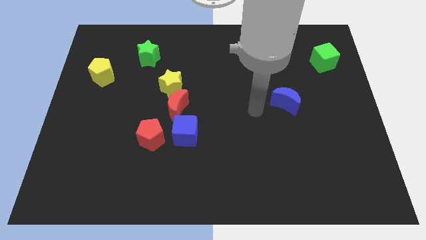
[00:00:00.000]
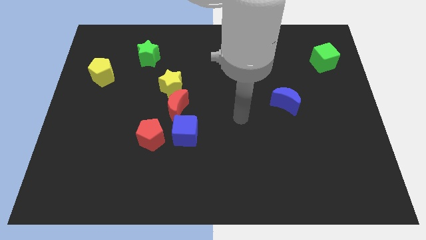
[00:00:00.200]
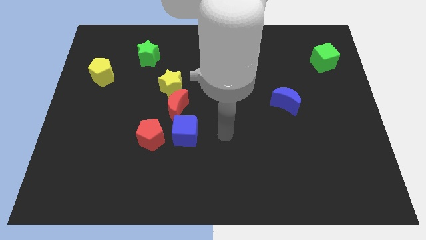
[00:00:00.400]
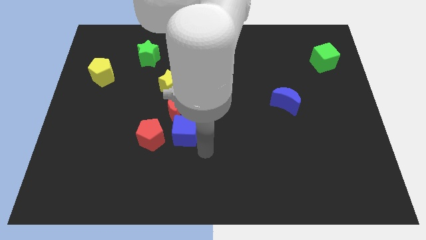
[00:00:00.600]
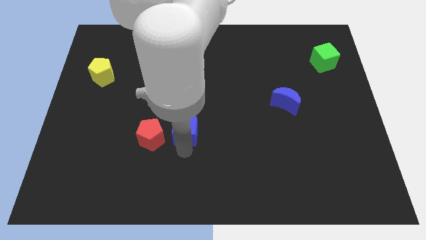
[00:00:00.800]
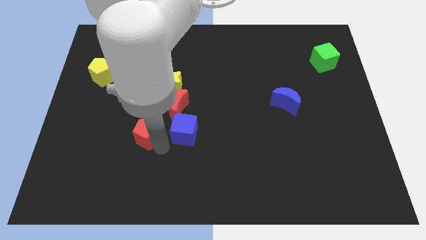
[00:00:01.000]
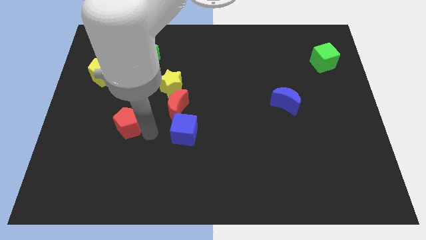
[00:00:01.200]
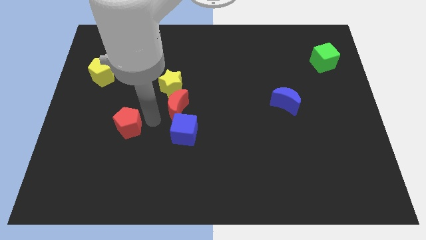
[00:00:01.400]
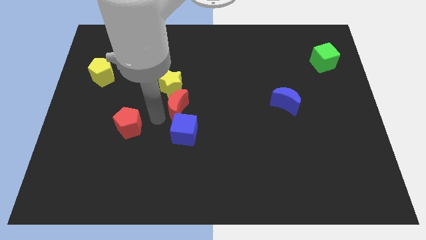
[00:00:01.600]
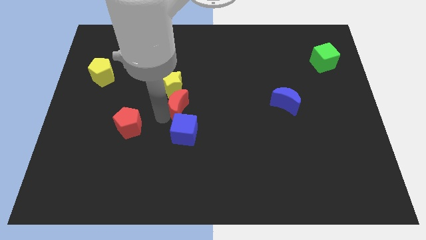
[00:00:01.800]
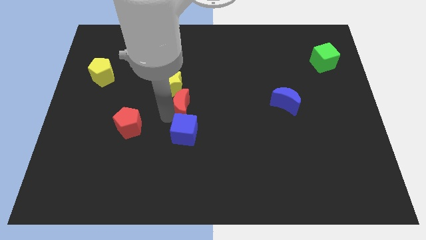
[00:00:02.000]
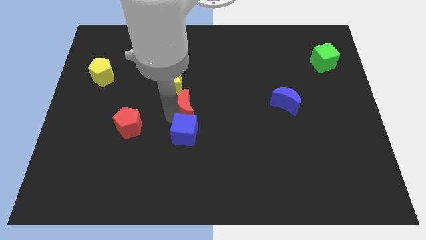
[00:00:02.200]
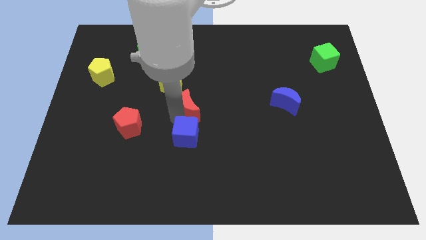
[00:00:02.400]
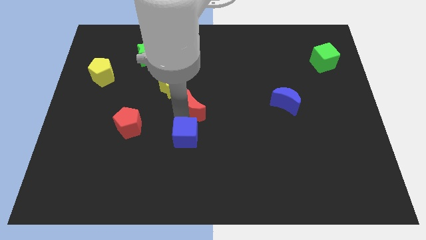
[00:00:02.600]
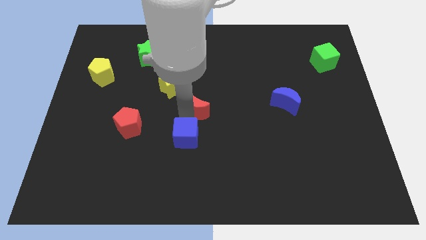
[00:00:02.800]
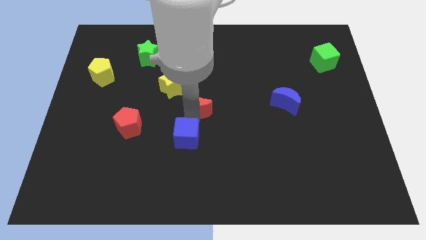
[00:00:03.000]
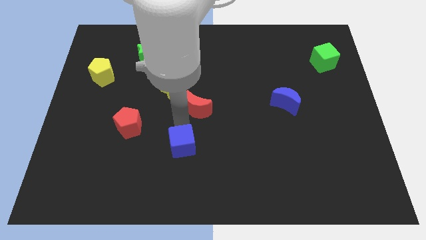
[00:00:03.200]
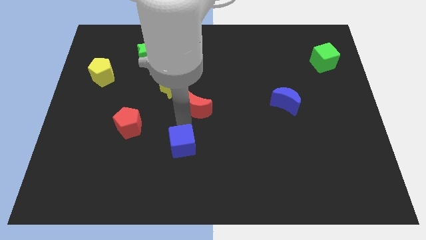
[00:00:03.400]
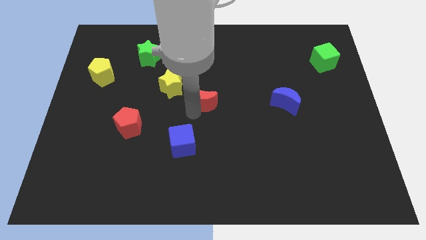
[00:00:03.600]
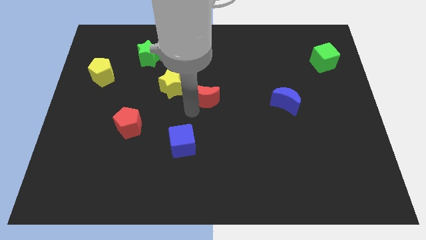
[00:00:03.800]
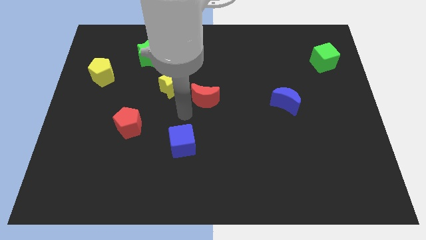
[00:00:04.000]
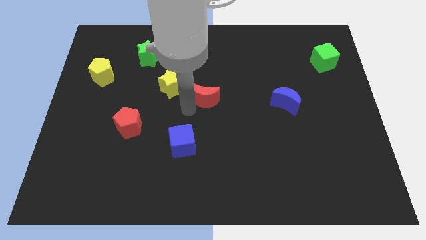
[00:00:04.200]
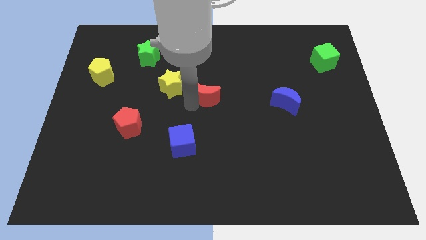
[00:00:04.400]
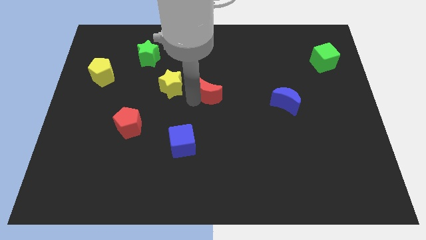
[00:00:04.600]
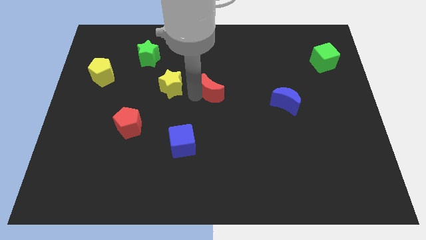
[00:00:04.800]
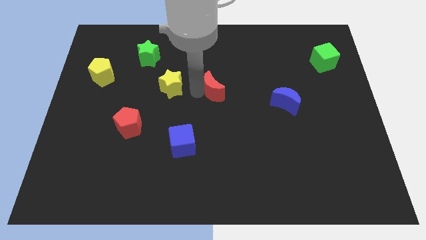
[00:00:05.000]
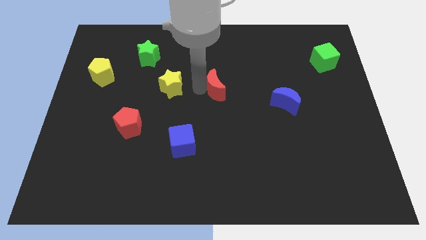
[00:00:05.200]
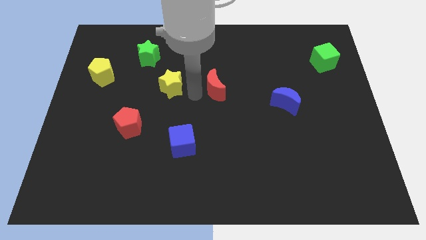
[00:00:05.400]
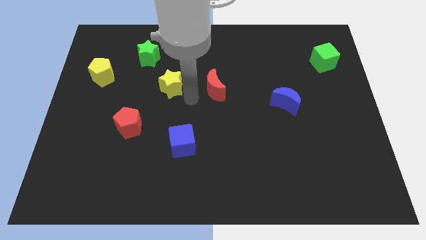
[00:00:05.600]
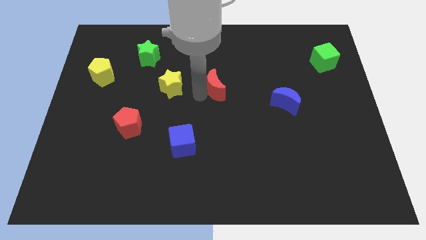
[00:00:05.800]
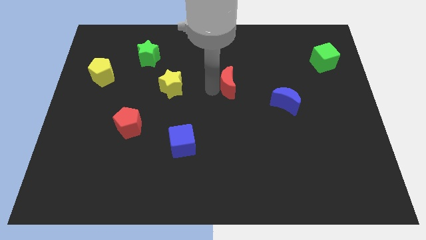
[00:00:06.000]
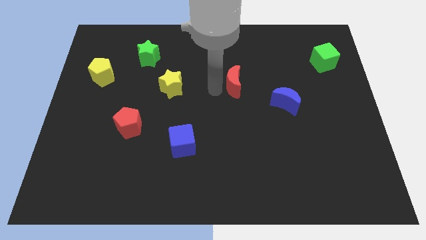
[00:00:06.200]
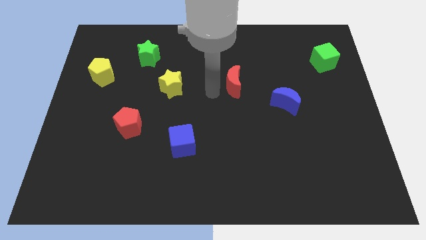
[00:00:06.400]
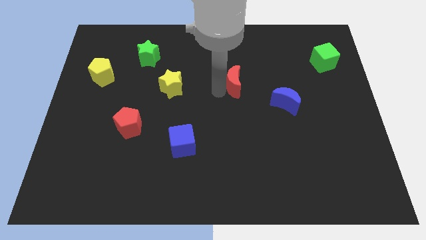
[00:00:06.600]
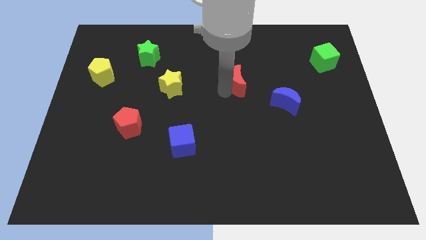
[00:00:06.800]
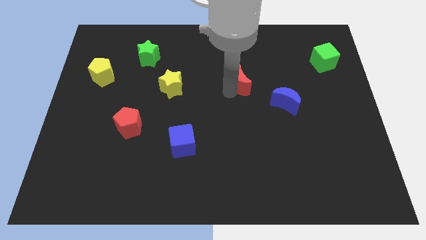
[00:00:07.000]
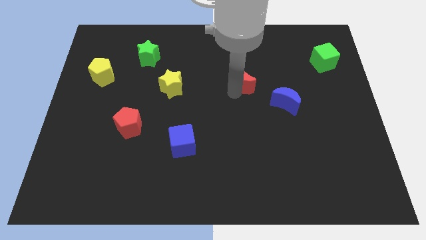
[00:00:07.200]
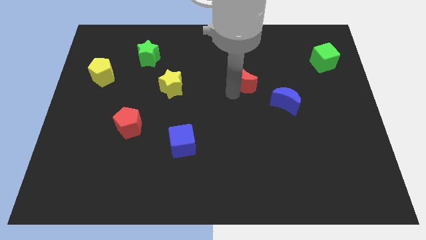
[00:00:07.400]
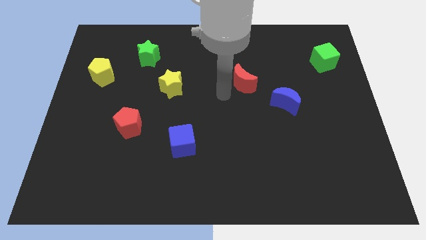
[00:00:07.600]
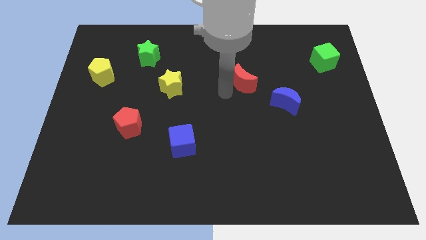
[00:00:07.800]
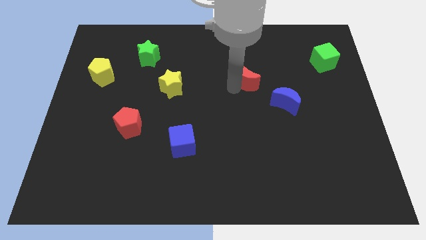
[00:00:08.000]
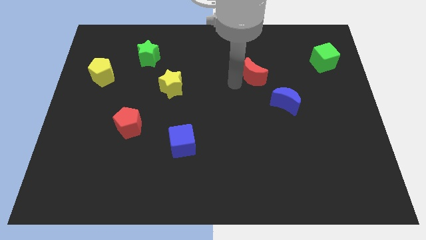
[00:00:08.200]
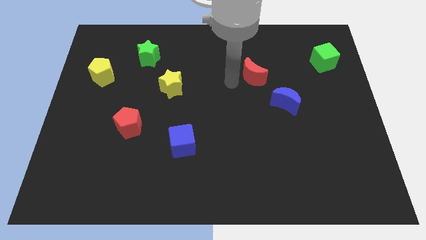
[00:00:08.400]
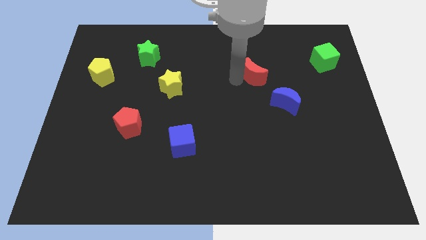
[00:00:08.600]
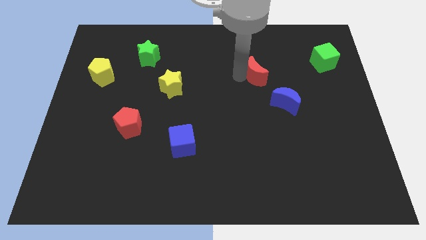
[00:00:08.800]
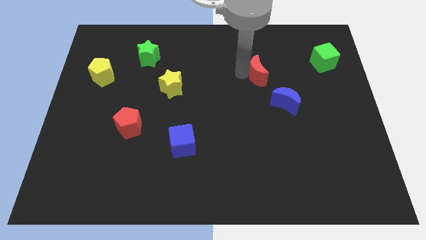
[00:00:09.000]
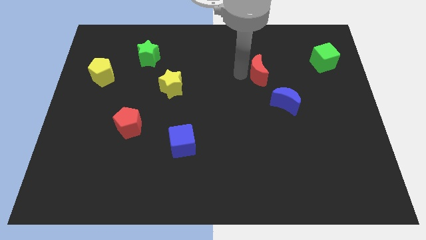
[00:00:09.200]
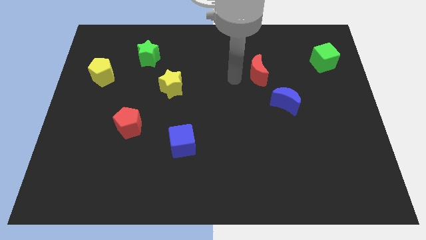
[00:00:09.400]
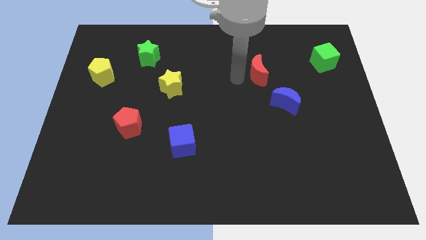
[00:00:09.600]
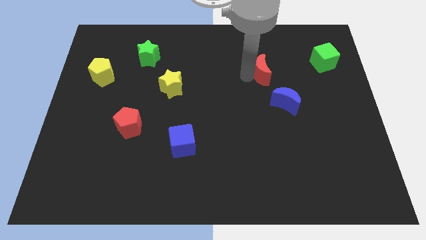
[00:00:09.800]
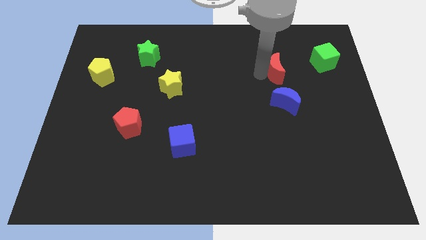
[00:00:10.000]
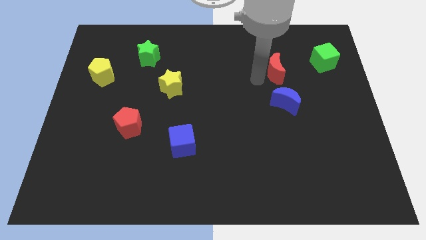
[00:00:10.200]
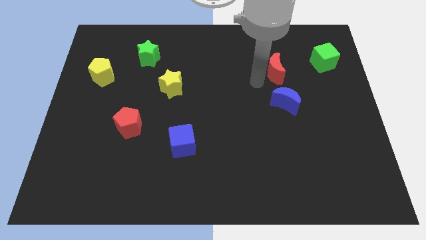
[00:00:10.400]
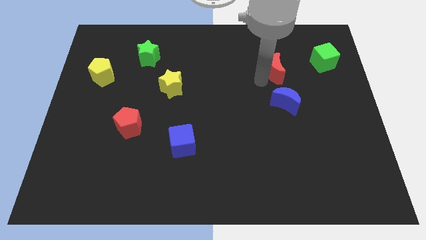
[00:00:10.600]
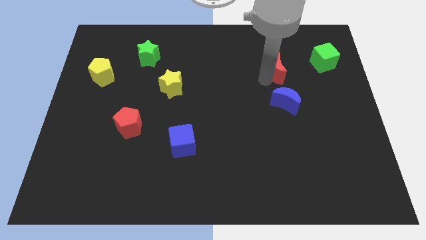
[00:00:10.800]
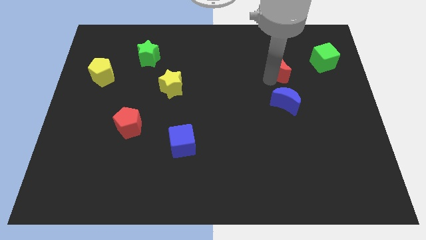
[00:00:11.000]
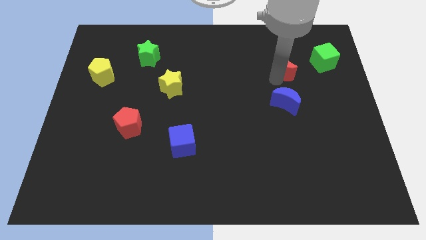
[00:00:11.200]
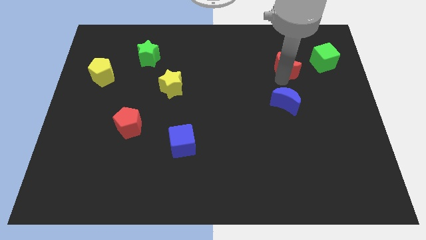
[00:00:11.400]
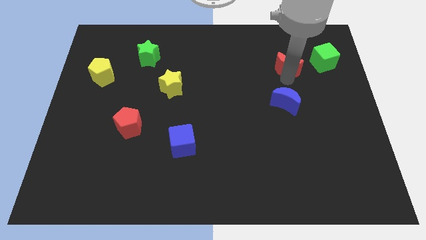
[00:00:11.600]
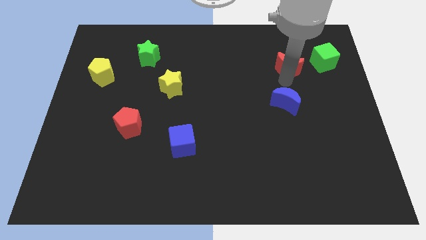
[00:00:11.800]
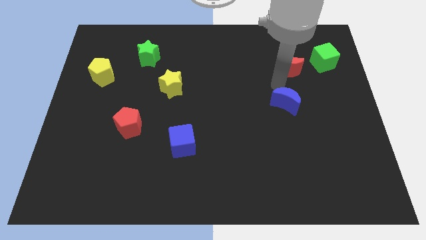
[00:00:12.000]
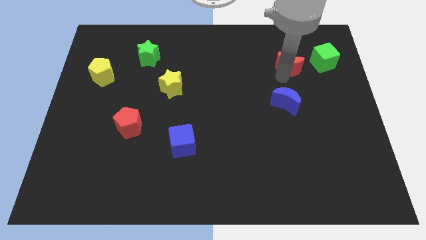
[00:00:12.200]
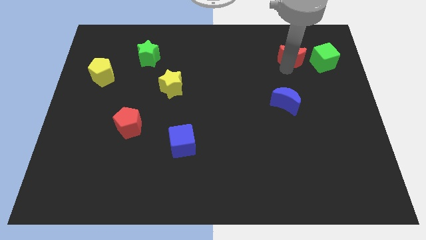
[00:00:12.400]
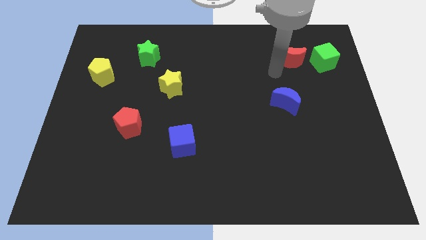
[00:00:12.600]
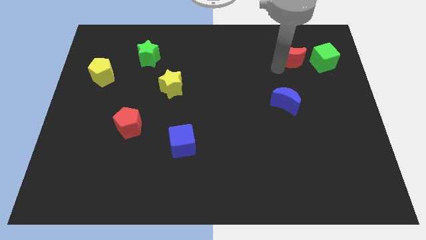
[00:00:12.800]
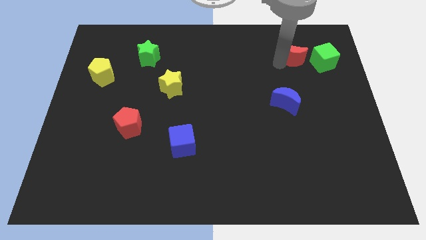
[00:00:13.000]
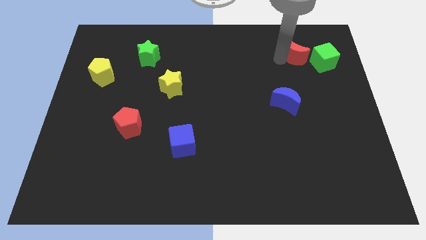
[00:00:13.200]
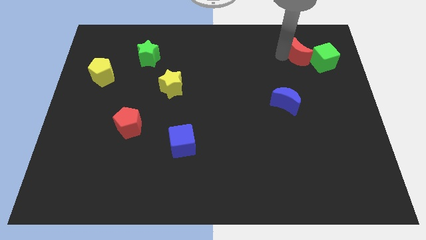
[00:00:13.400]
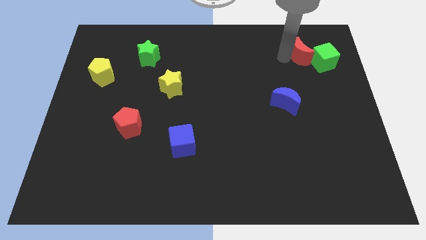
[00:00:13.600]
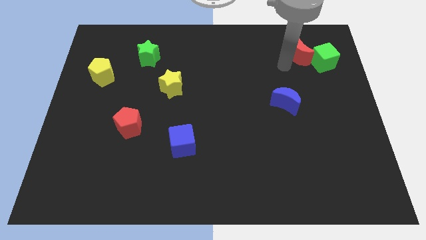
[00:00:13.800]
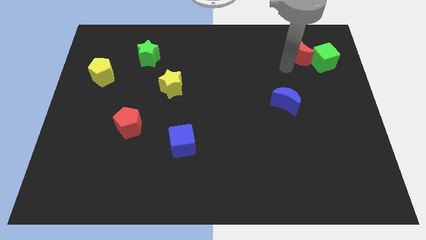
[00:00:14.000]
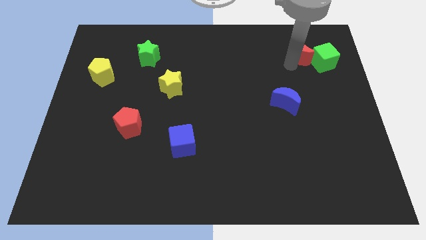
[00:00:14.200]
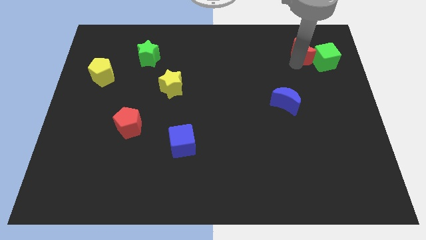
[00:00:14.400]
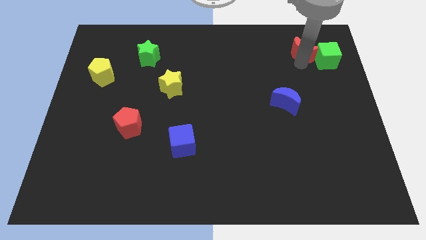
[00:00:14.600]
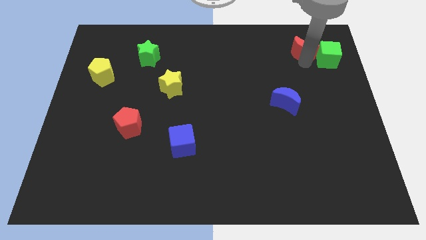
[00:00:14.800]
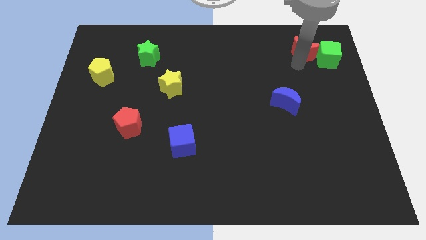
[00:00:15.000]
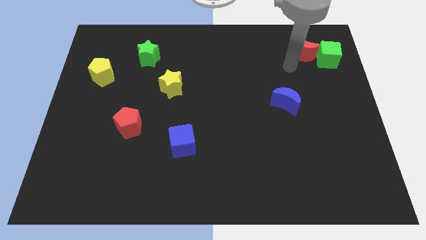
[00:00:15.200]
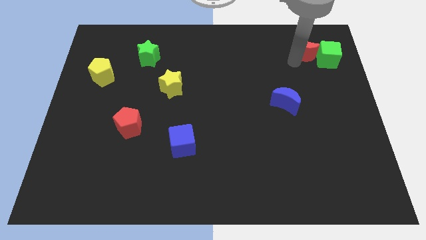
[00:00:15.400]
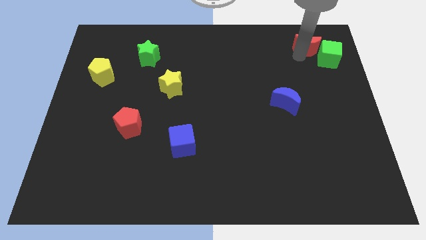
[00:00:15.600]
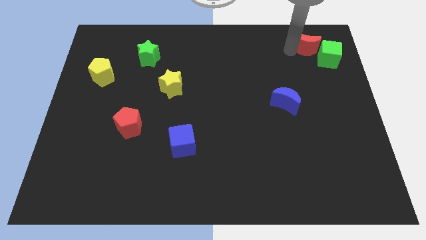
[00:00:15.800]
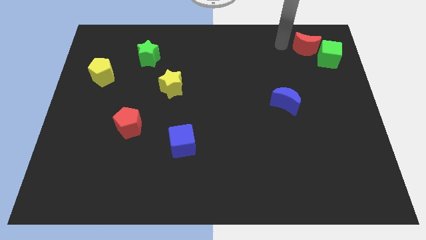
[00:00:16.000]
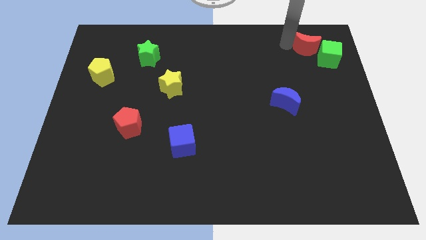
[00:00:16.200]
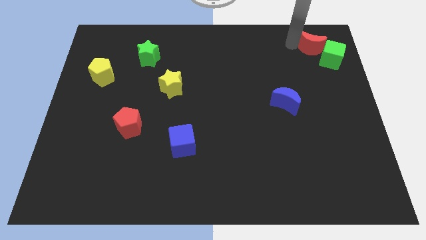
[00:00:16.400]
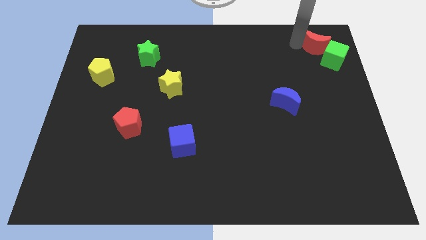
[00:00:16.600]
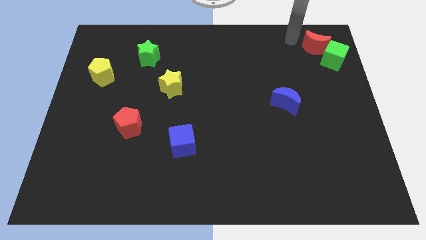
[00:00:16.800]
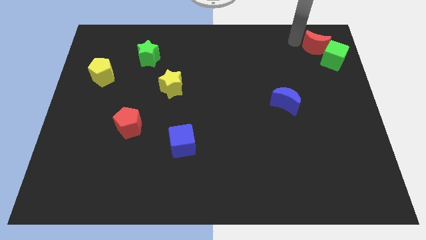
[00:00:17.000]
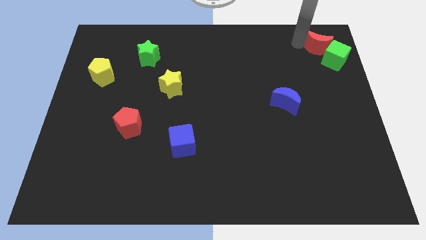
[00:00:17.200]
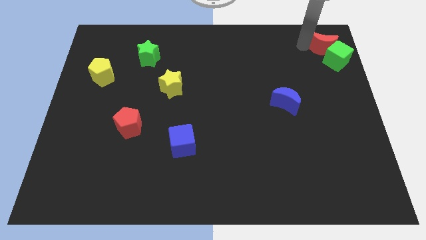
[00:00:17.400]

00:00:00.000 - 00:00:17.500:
slide the red moon to the top right of the board
